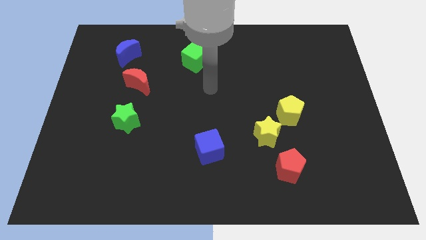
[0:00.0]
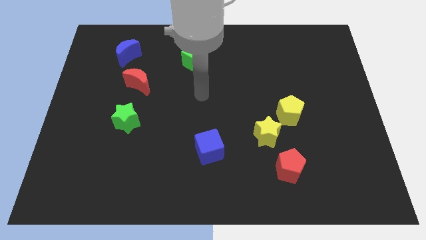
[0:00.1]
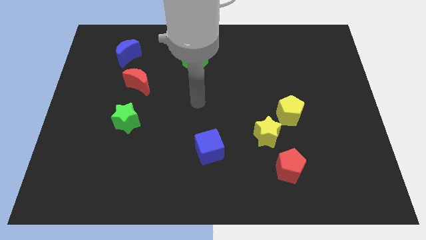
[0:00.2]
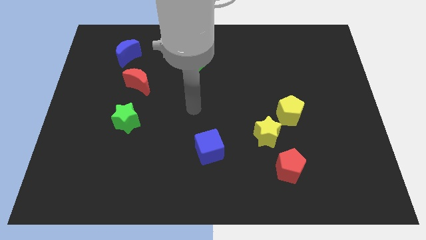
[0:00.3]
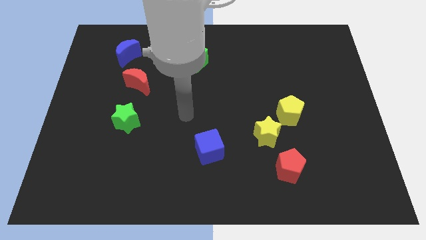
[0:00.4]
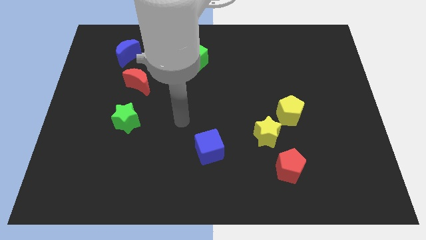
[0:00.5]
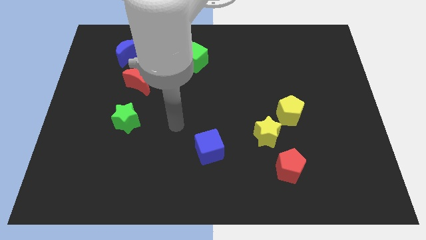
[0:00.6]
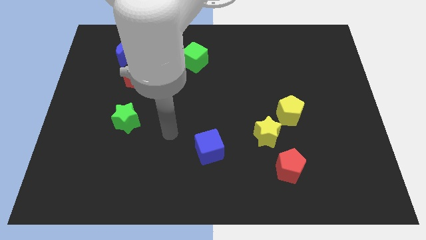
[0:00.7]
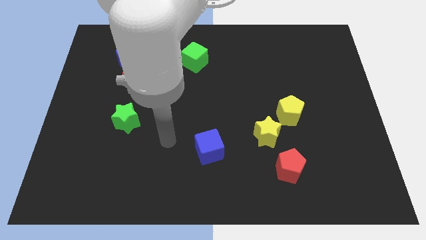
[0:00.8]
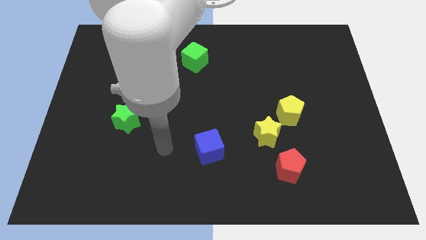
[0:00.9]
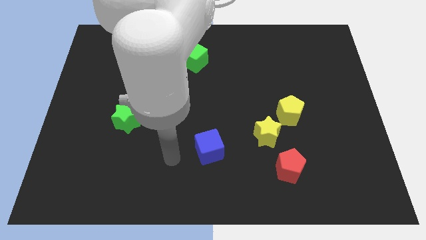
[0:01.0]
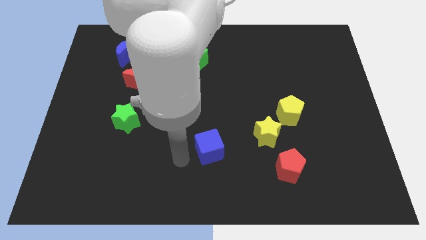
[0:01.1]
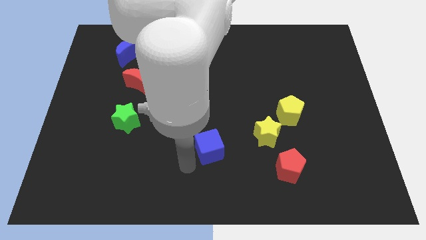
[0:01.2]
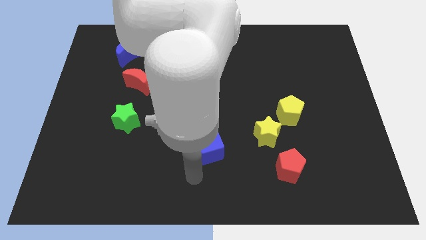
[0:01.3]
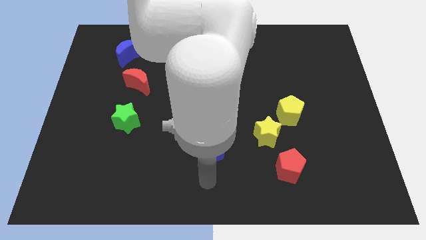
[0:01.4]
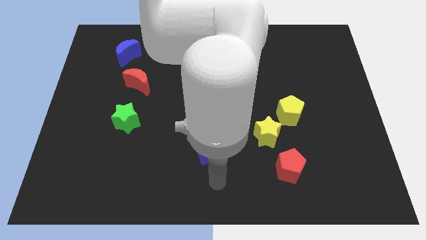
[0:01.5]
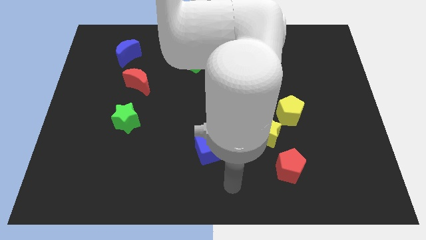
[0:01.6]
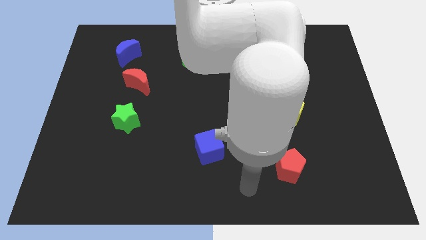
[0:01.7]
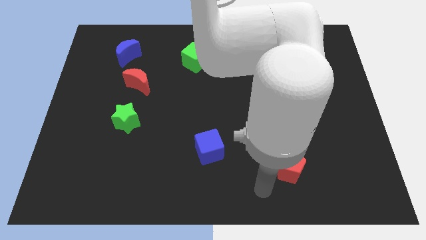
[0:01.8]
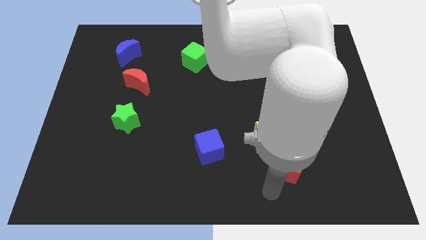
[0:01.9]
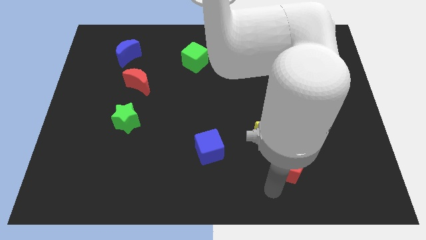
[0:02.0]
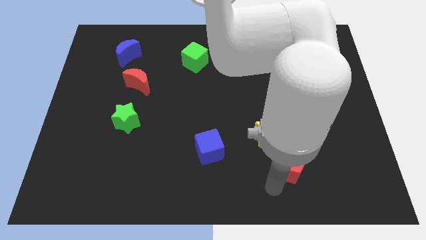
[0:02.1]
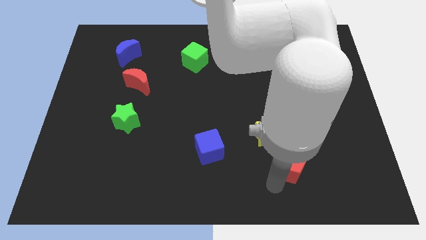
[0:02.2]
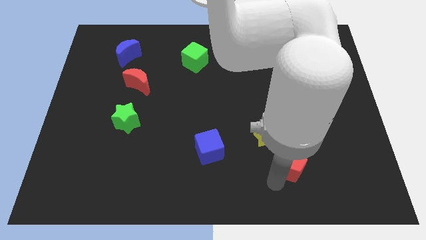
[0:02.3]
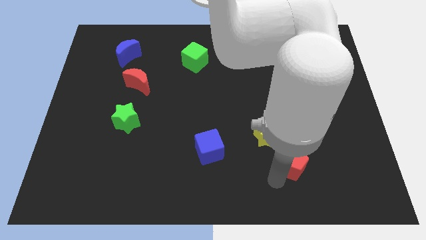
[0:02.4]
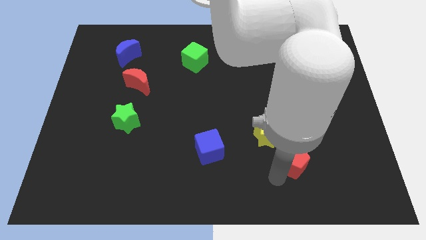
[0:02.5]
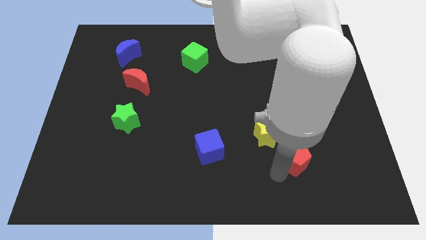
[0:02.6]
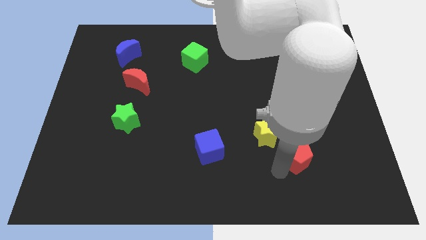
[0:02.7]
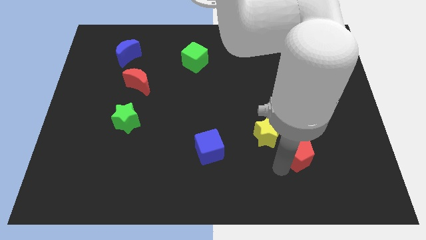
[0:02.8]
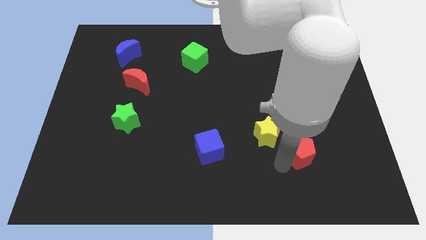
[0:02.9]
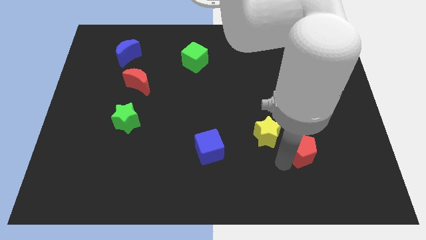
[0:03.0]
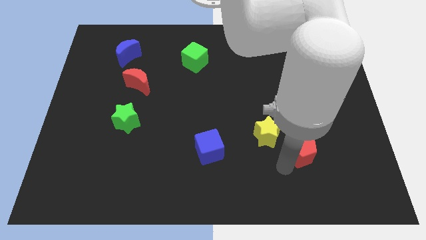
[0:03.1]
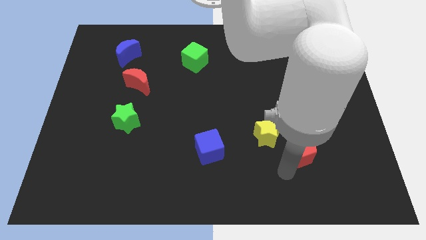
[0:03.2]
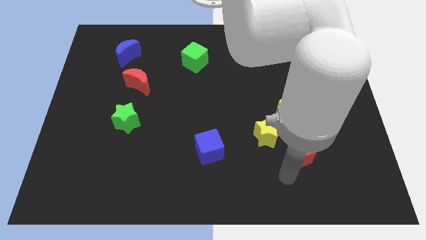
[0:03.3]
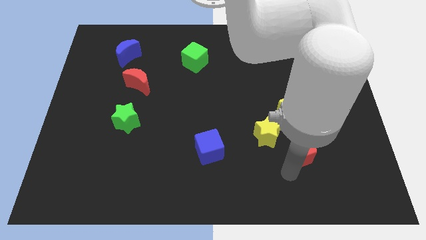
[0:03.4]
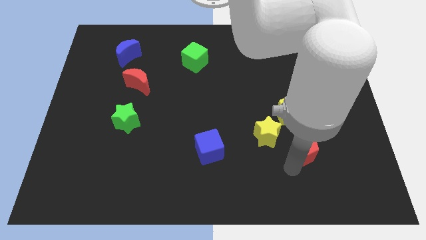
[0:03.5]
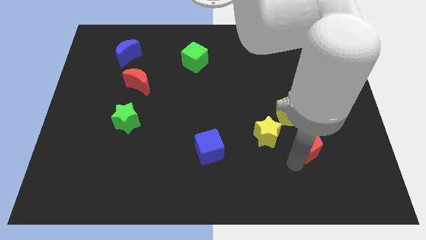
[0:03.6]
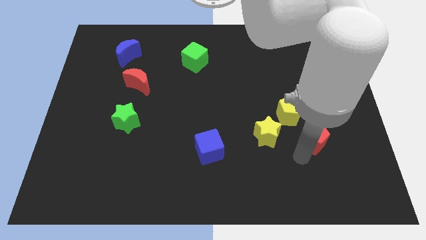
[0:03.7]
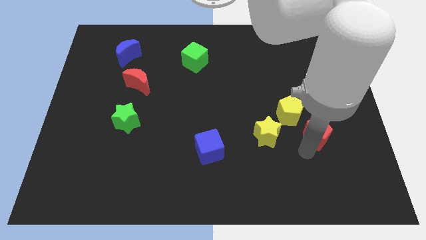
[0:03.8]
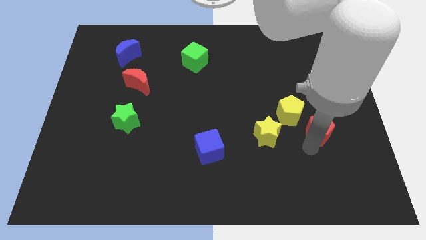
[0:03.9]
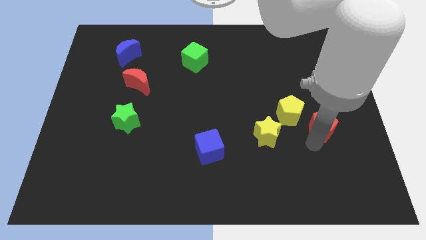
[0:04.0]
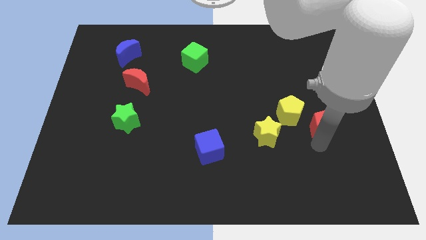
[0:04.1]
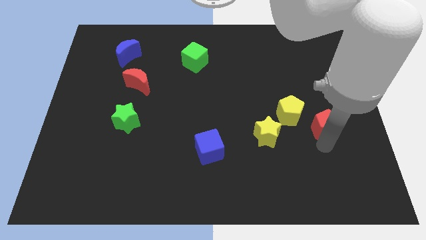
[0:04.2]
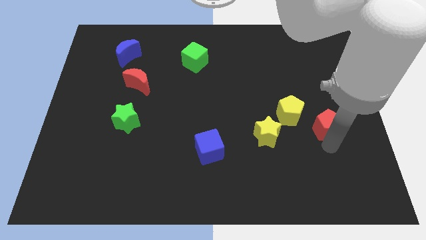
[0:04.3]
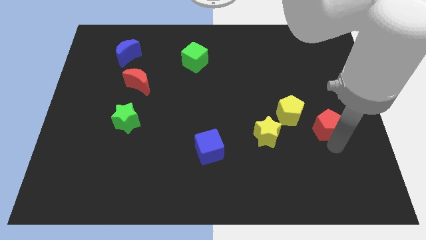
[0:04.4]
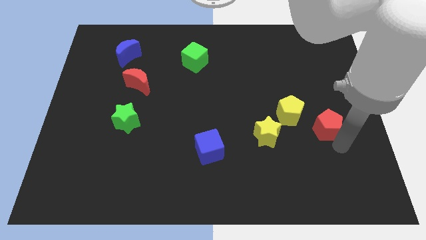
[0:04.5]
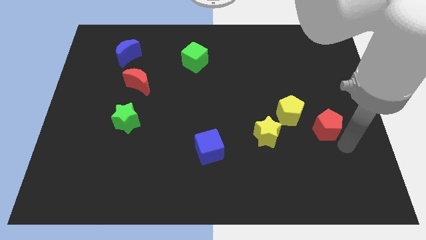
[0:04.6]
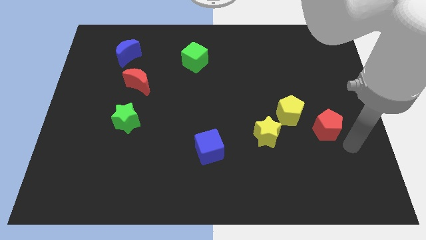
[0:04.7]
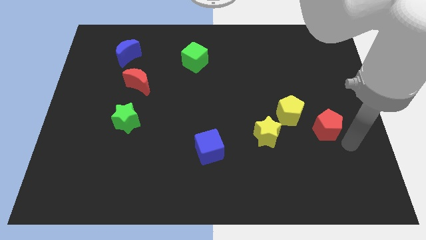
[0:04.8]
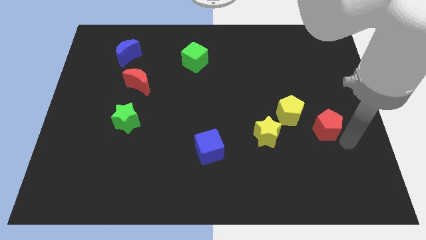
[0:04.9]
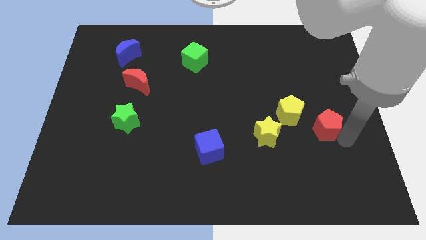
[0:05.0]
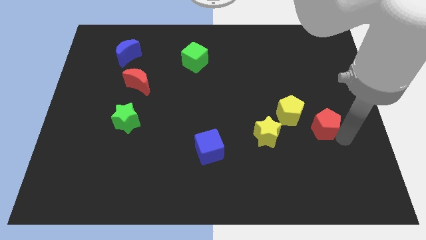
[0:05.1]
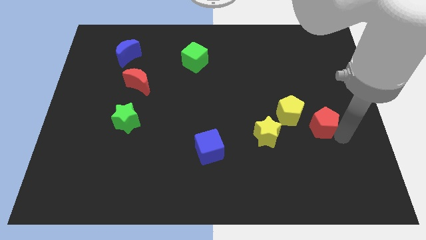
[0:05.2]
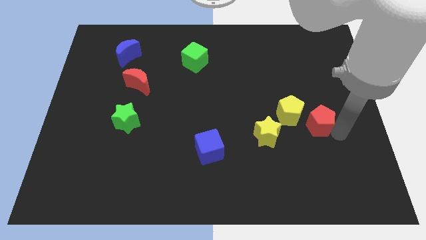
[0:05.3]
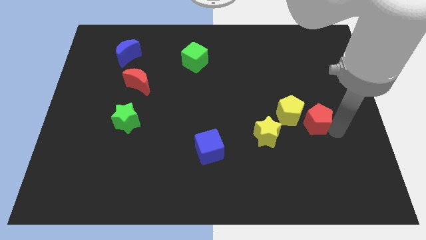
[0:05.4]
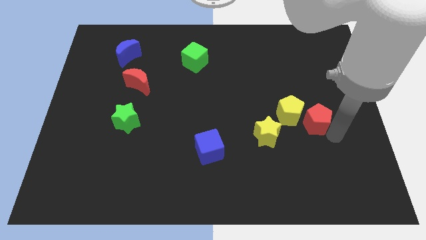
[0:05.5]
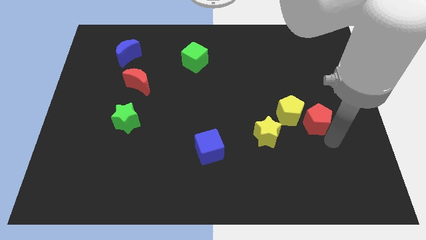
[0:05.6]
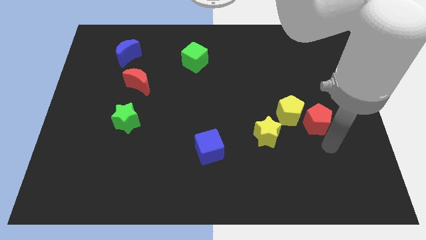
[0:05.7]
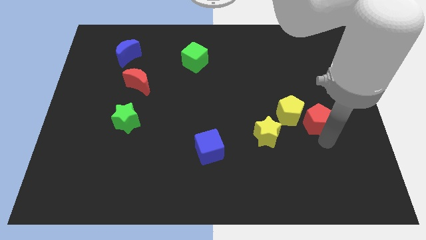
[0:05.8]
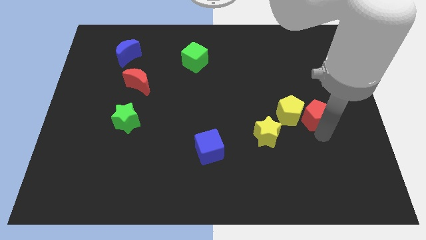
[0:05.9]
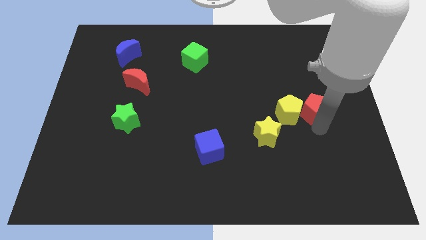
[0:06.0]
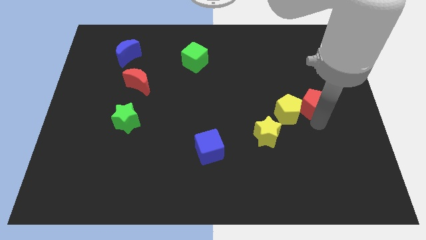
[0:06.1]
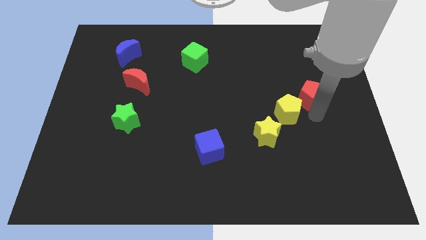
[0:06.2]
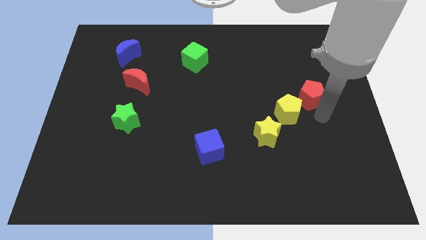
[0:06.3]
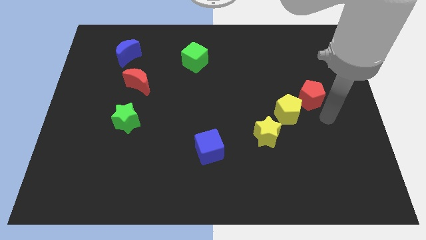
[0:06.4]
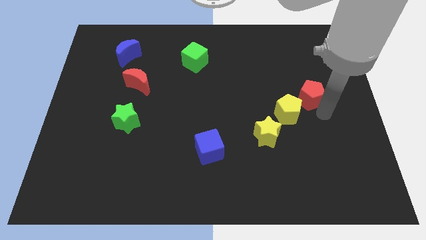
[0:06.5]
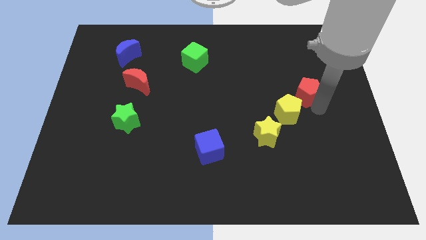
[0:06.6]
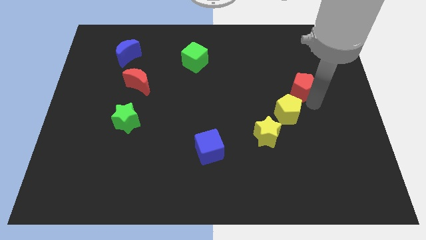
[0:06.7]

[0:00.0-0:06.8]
move the red pentagon upwards

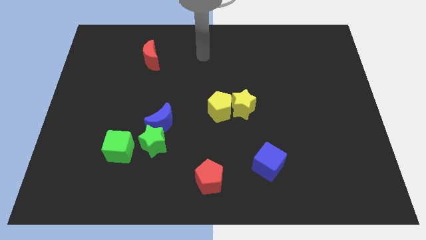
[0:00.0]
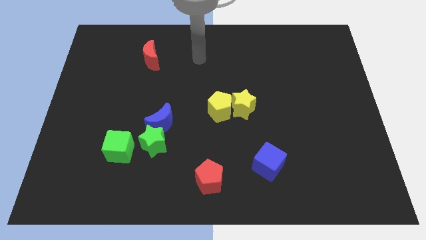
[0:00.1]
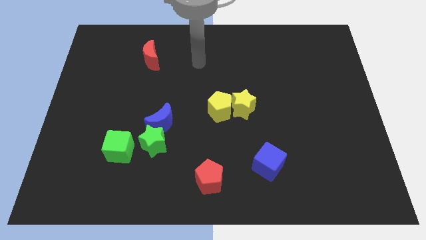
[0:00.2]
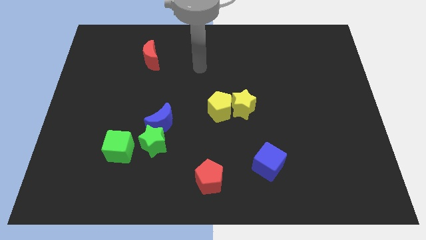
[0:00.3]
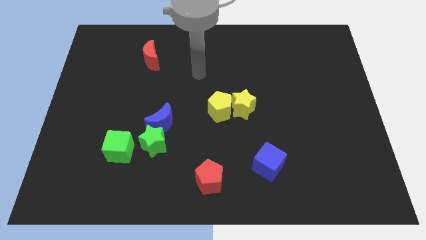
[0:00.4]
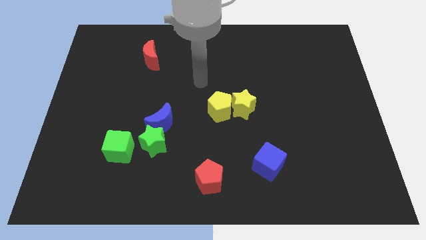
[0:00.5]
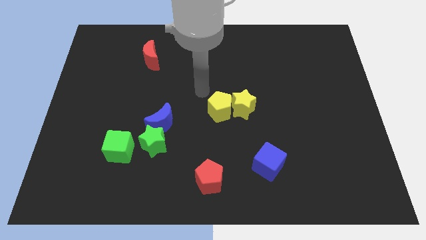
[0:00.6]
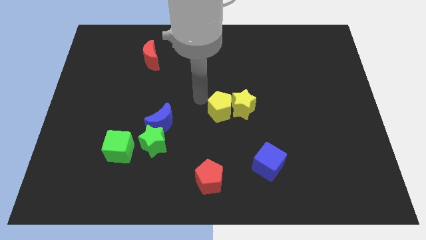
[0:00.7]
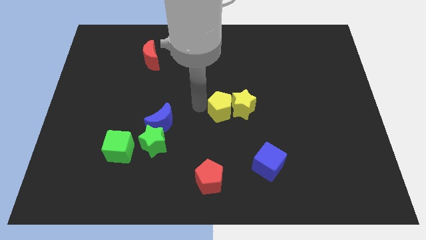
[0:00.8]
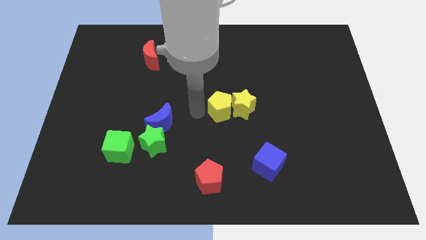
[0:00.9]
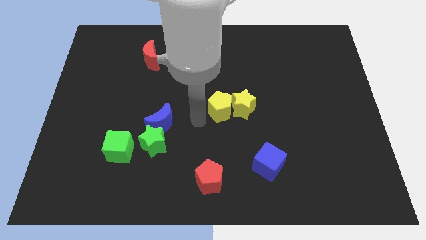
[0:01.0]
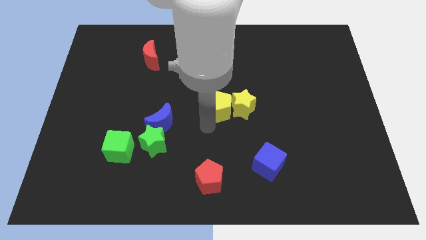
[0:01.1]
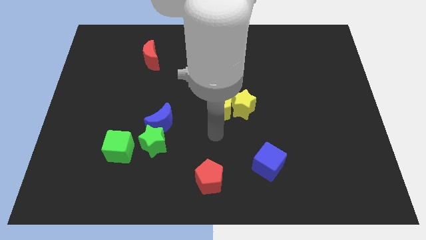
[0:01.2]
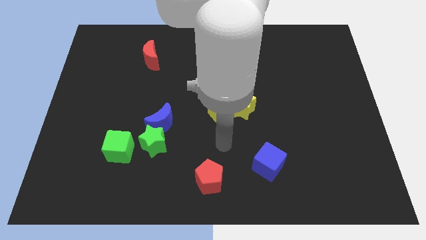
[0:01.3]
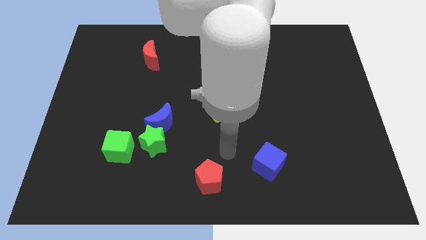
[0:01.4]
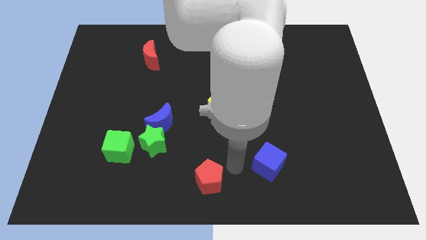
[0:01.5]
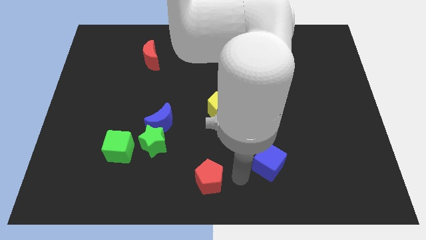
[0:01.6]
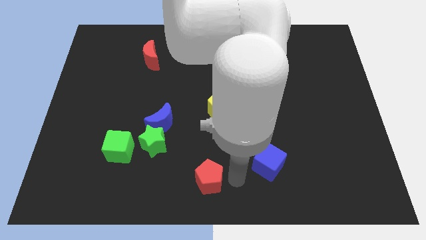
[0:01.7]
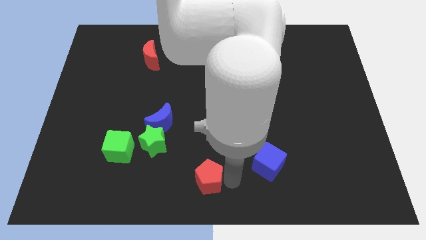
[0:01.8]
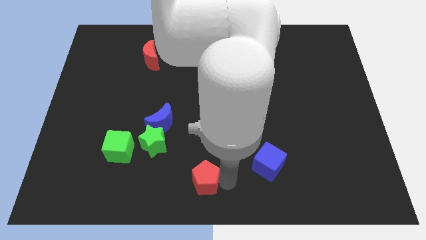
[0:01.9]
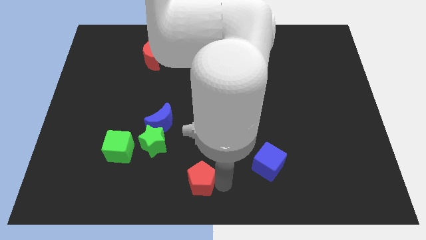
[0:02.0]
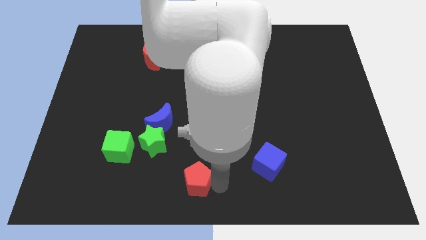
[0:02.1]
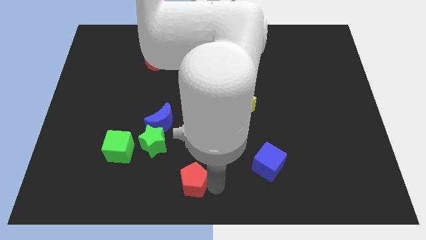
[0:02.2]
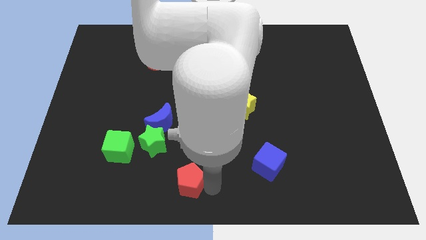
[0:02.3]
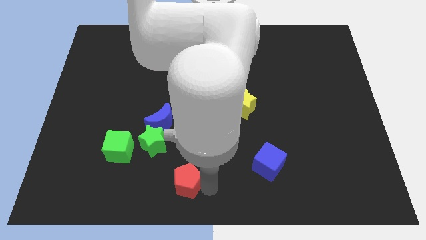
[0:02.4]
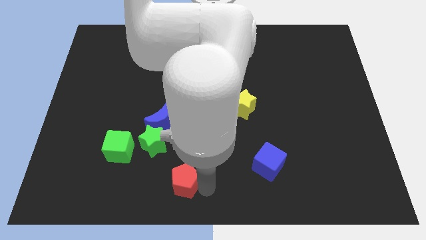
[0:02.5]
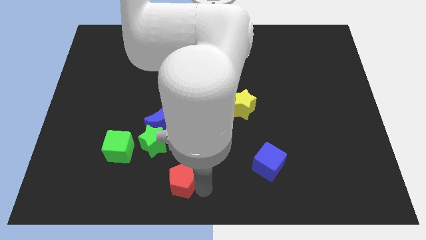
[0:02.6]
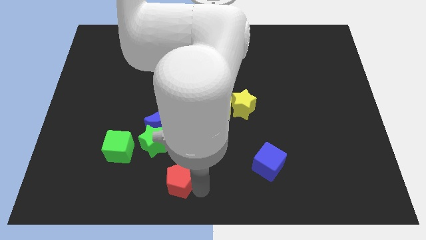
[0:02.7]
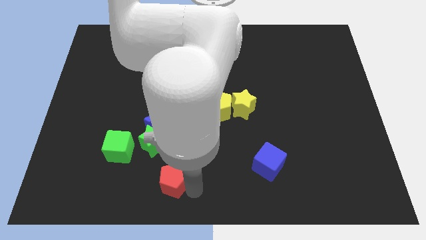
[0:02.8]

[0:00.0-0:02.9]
slide the red pentagon to the left a little
